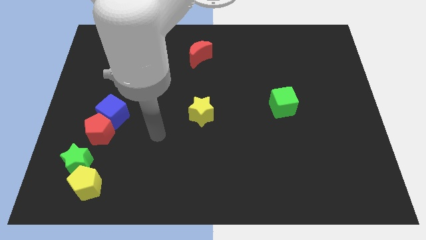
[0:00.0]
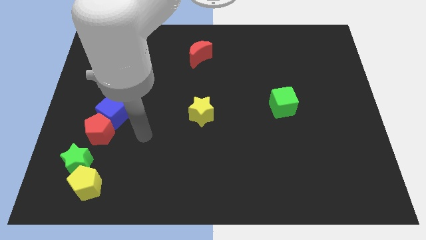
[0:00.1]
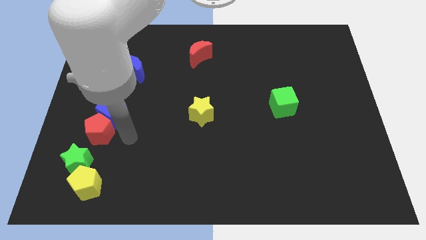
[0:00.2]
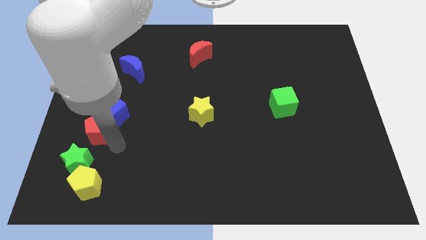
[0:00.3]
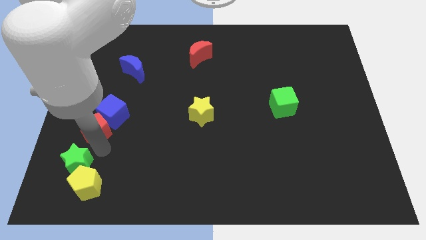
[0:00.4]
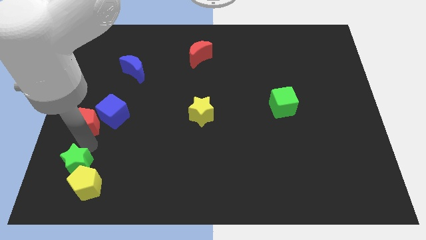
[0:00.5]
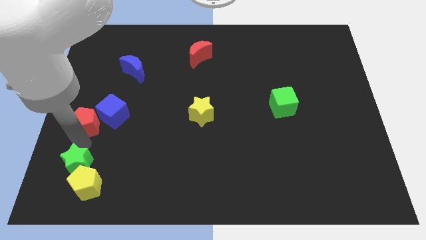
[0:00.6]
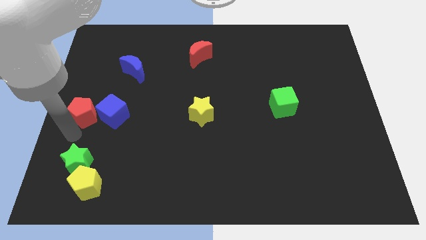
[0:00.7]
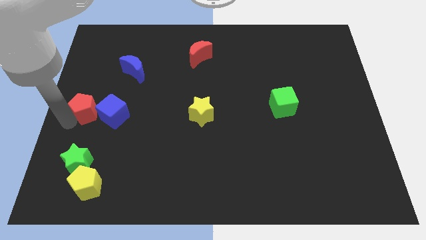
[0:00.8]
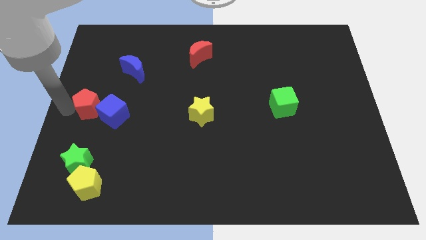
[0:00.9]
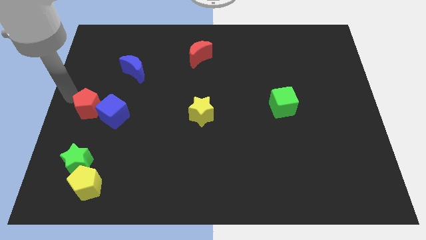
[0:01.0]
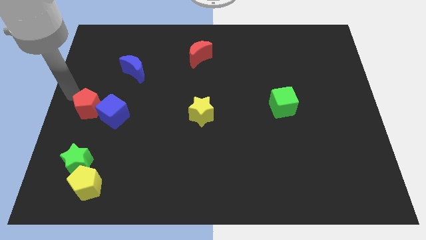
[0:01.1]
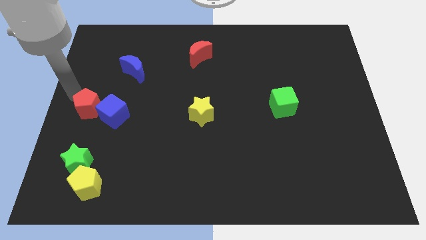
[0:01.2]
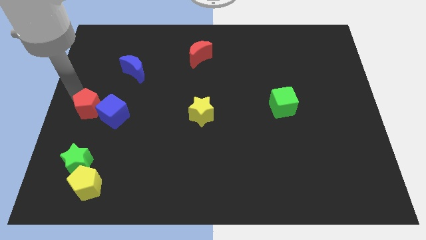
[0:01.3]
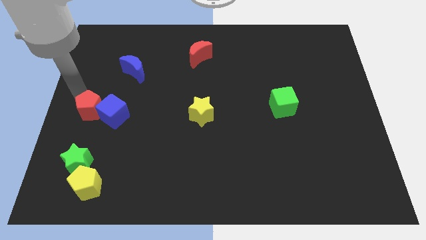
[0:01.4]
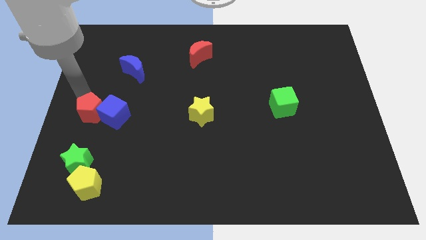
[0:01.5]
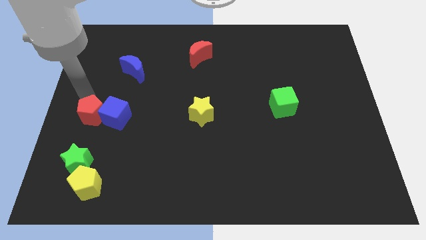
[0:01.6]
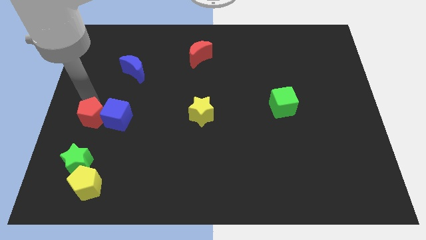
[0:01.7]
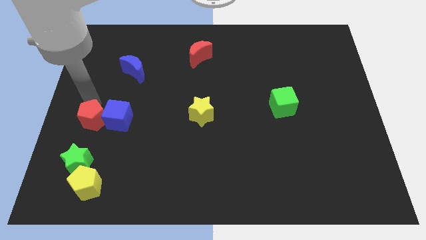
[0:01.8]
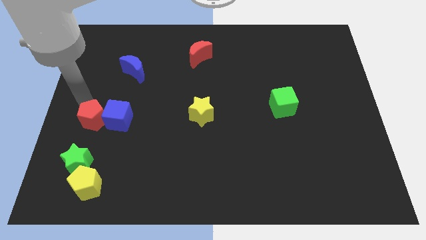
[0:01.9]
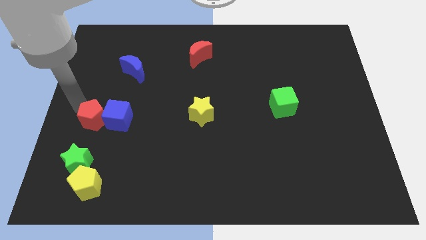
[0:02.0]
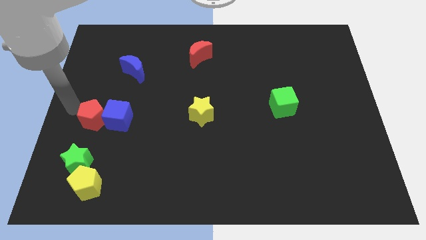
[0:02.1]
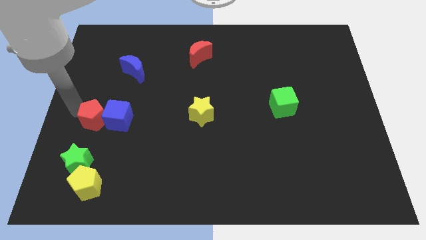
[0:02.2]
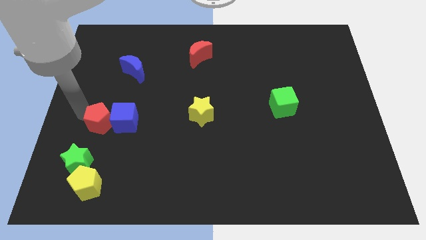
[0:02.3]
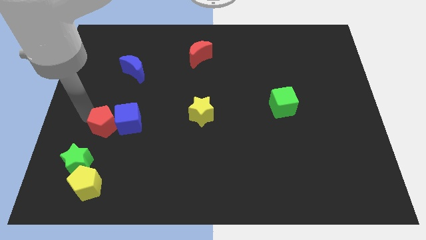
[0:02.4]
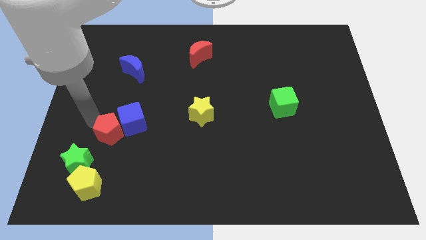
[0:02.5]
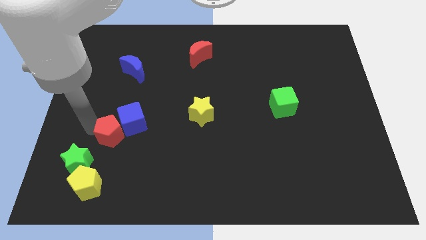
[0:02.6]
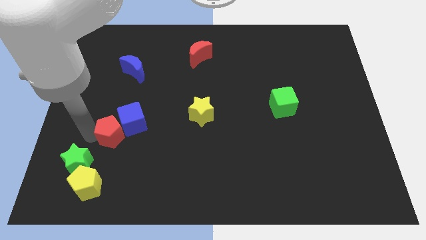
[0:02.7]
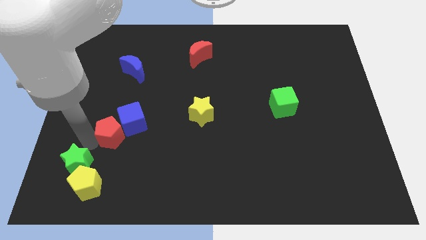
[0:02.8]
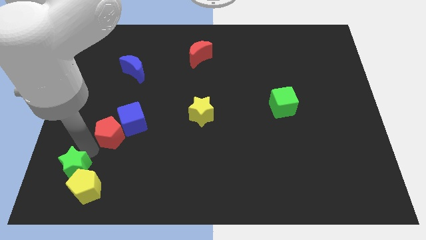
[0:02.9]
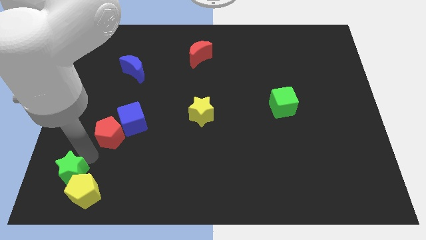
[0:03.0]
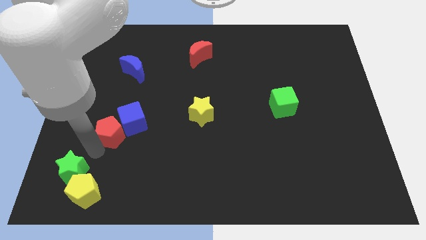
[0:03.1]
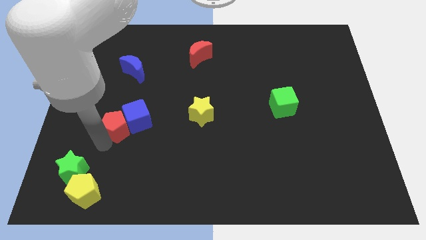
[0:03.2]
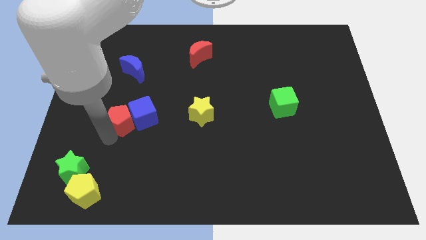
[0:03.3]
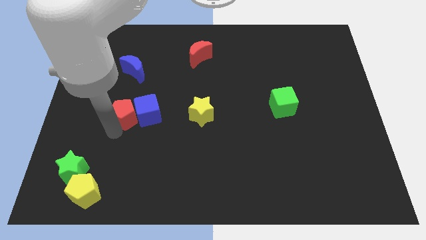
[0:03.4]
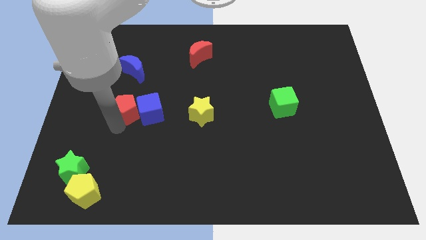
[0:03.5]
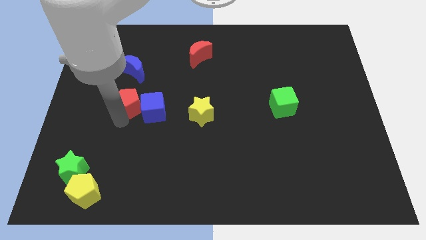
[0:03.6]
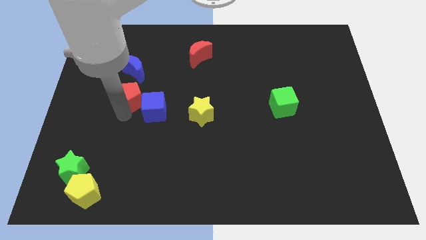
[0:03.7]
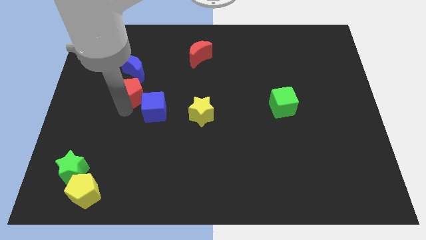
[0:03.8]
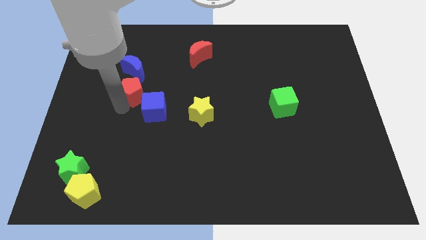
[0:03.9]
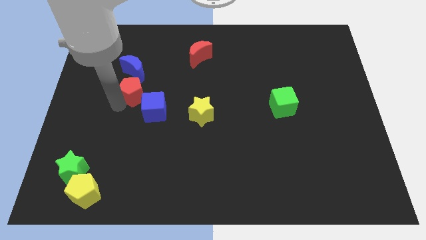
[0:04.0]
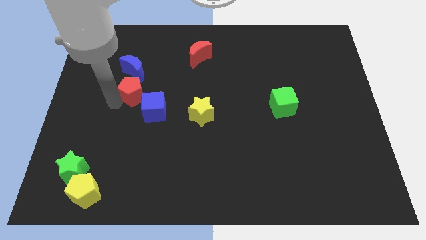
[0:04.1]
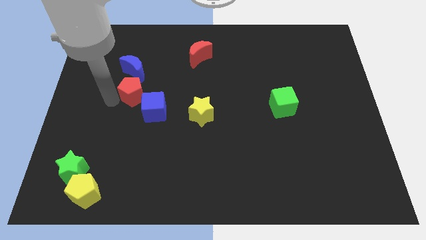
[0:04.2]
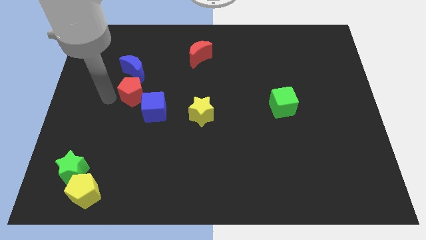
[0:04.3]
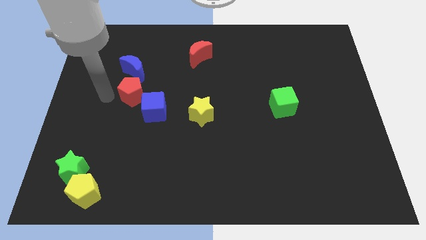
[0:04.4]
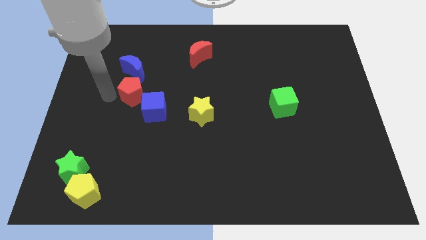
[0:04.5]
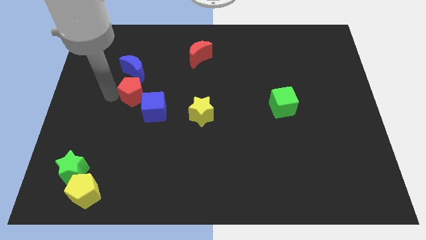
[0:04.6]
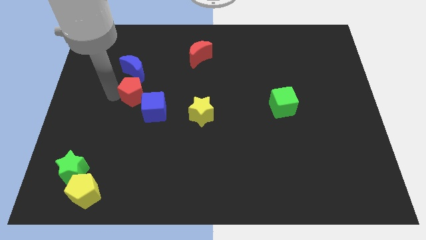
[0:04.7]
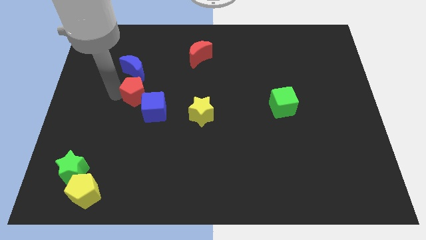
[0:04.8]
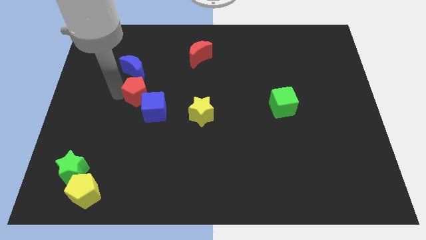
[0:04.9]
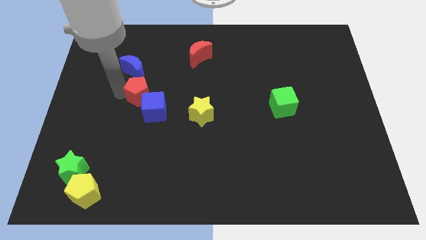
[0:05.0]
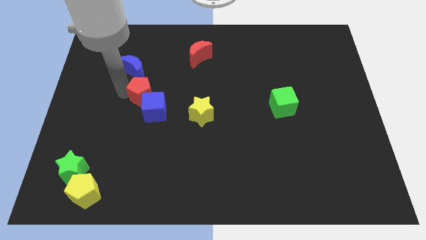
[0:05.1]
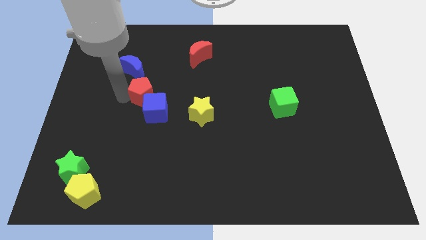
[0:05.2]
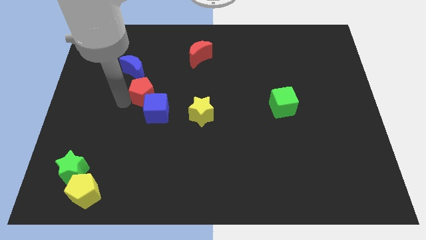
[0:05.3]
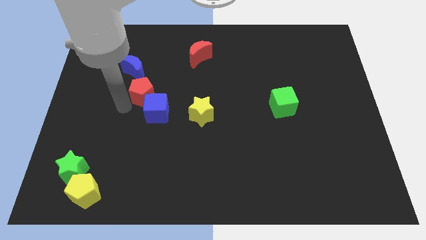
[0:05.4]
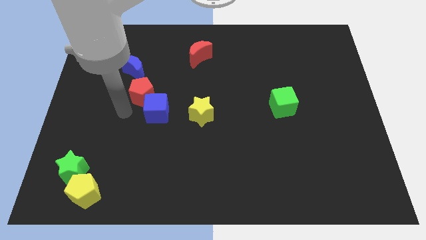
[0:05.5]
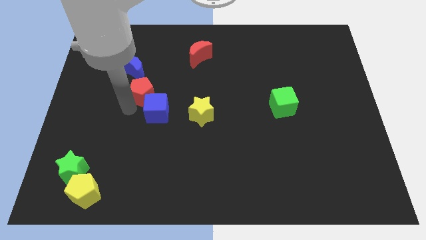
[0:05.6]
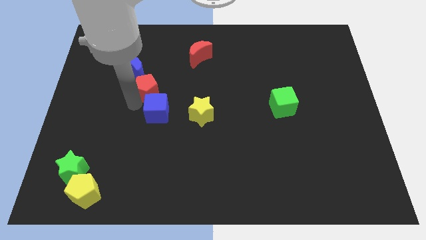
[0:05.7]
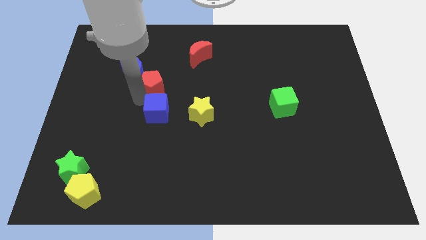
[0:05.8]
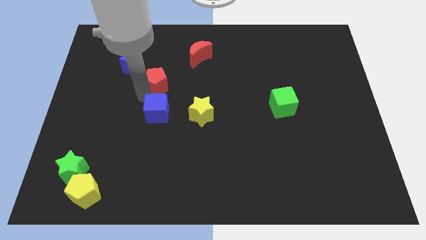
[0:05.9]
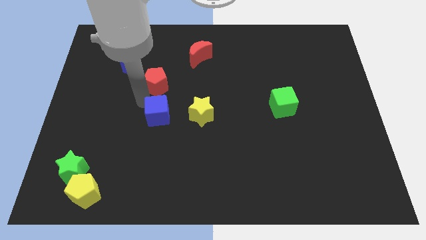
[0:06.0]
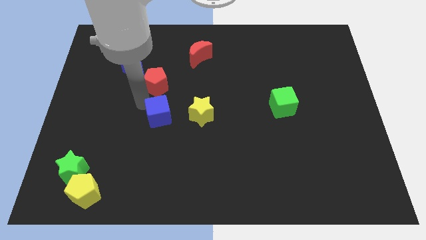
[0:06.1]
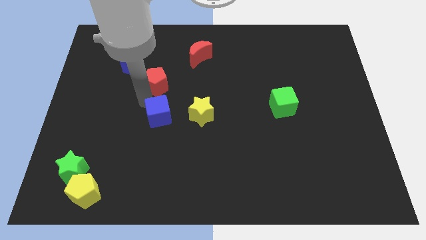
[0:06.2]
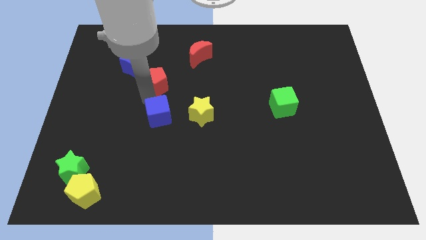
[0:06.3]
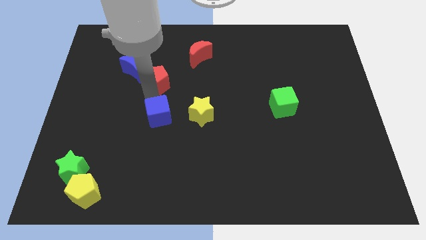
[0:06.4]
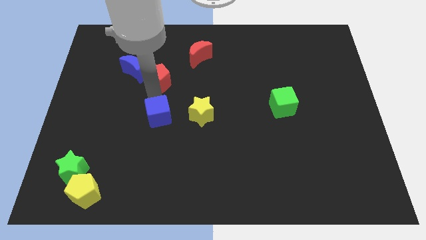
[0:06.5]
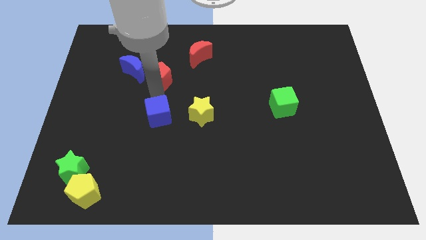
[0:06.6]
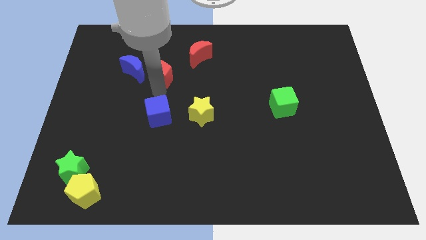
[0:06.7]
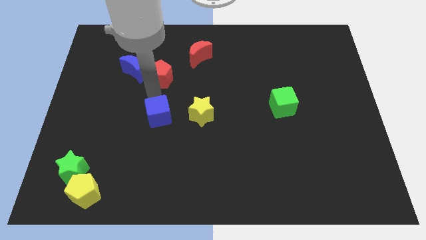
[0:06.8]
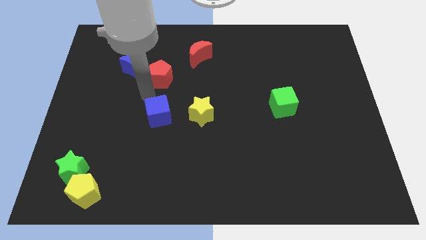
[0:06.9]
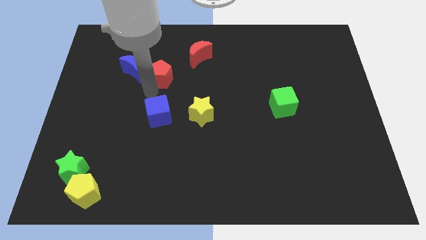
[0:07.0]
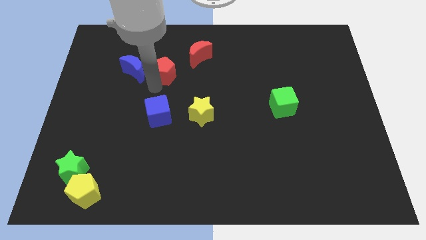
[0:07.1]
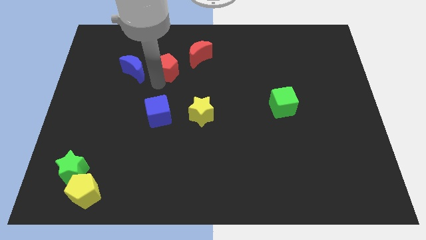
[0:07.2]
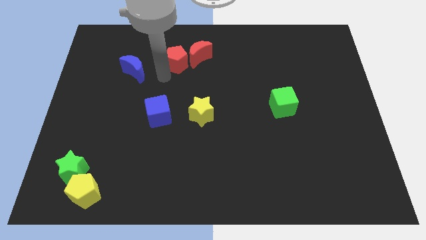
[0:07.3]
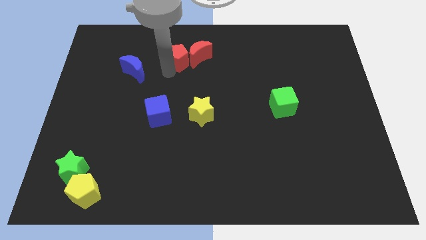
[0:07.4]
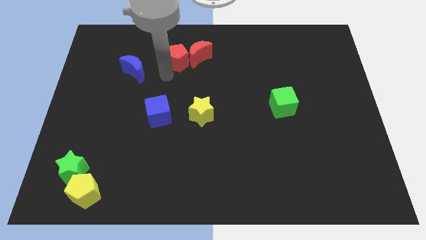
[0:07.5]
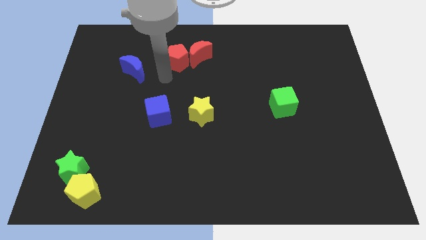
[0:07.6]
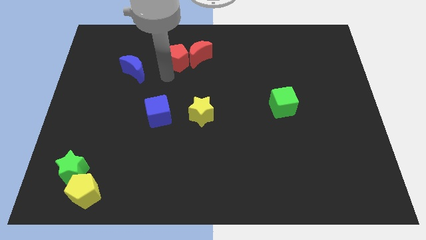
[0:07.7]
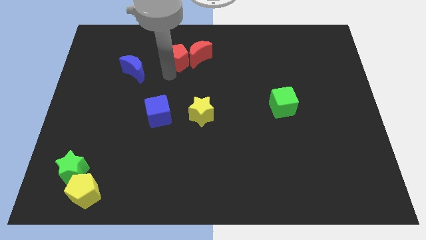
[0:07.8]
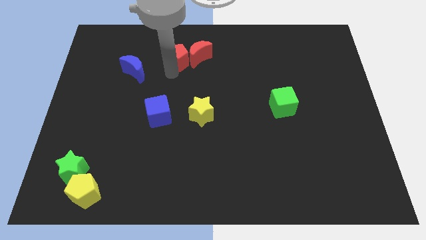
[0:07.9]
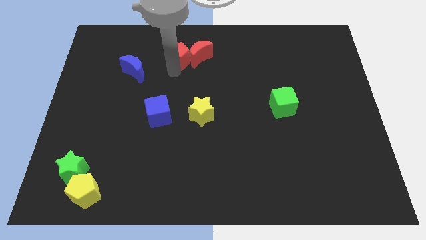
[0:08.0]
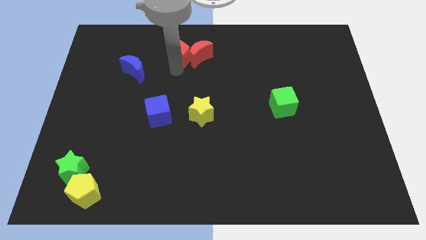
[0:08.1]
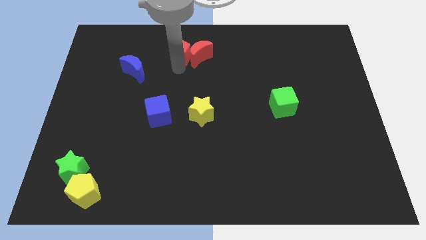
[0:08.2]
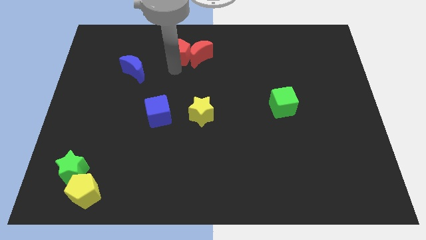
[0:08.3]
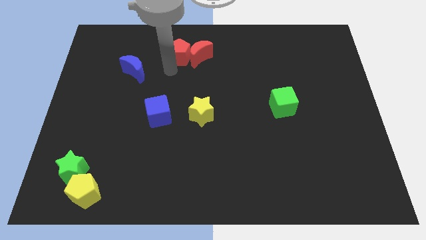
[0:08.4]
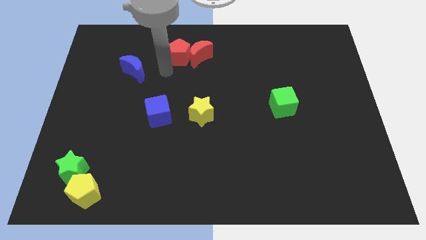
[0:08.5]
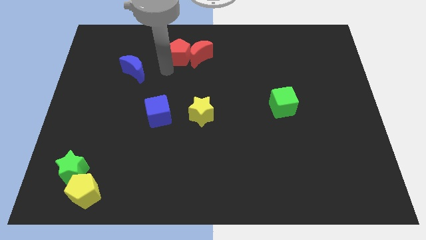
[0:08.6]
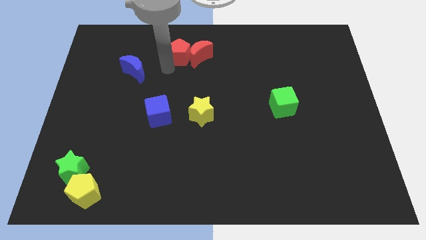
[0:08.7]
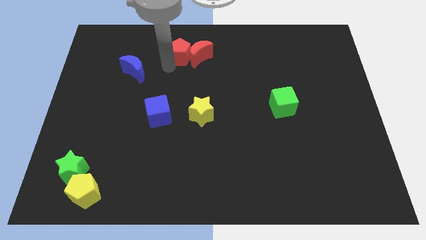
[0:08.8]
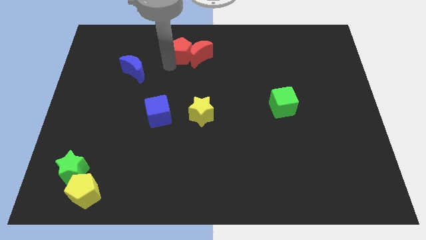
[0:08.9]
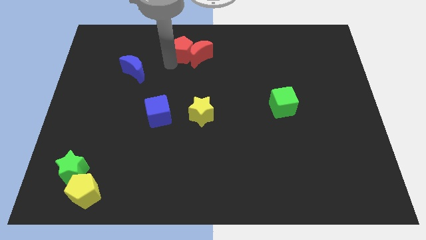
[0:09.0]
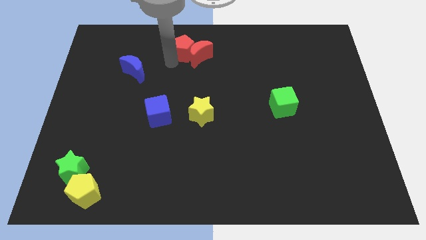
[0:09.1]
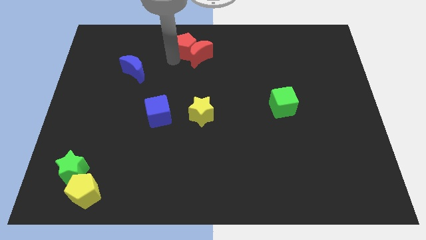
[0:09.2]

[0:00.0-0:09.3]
move the red pentagon to the top side
